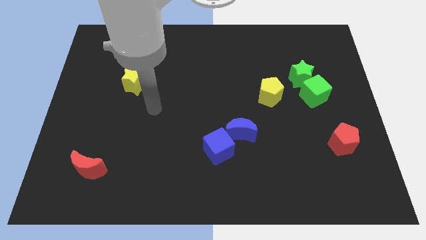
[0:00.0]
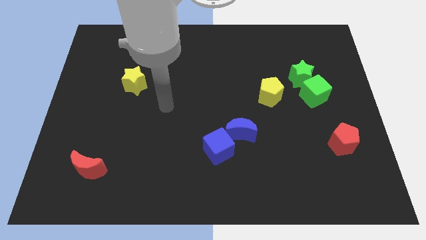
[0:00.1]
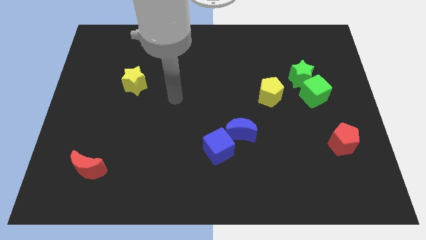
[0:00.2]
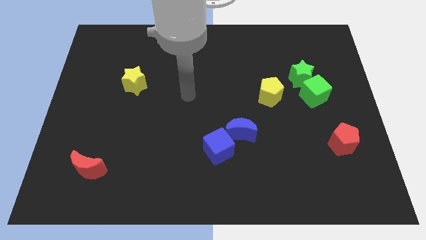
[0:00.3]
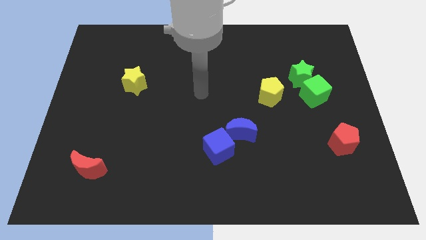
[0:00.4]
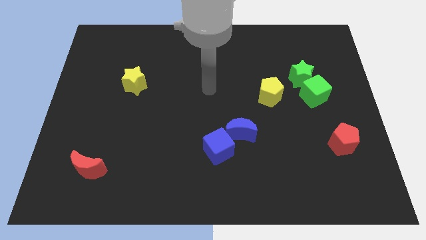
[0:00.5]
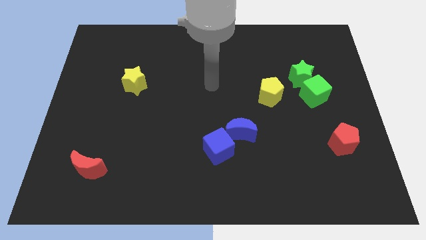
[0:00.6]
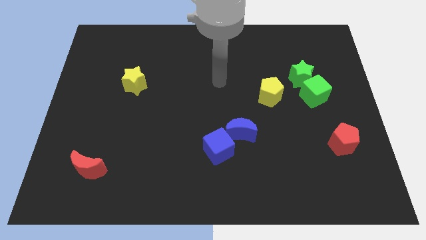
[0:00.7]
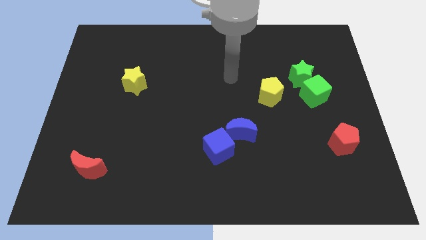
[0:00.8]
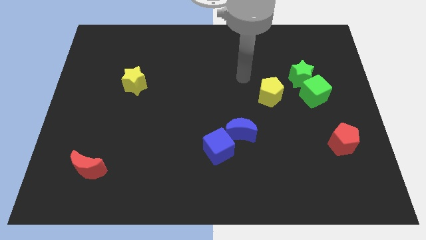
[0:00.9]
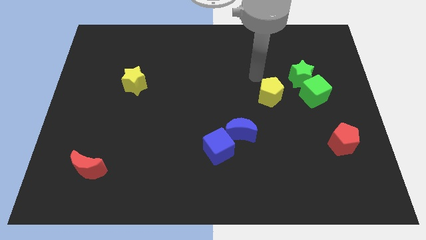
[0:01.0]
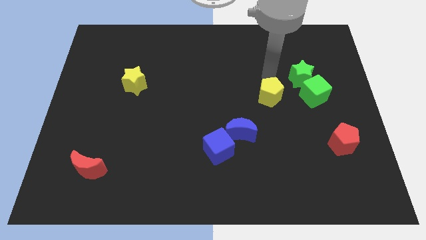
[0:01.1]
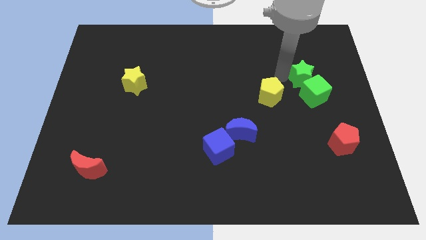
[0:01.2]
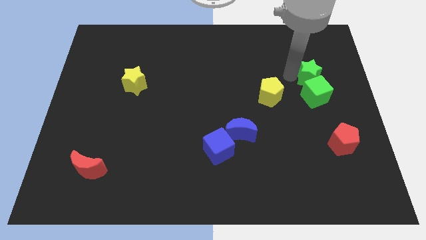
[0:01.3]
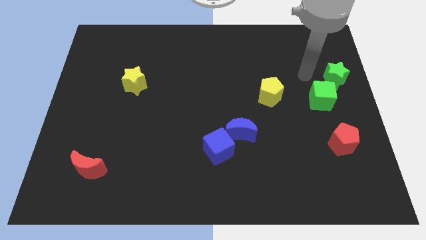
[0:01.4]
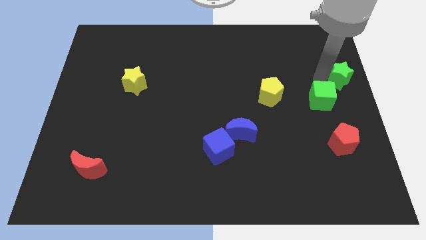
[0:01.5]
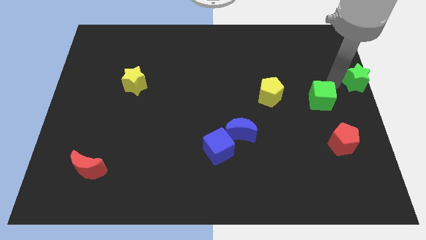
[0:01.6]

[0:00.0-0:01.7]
move the green cube away from the green star

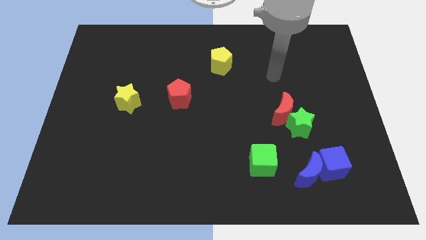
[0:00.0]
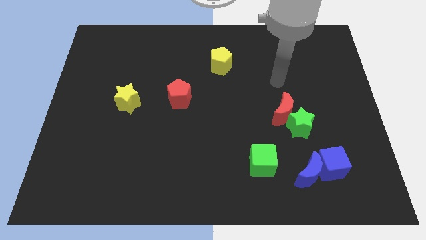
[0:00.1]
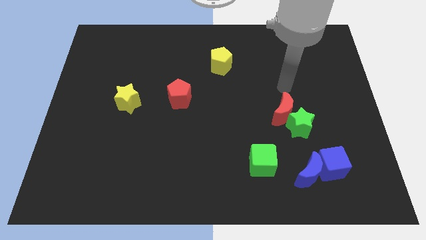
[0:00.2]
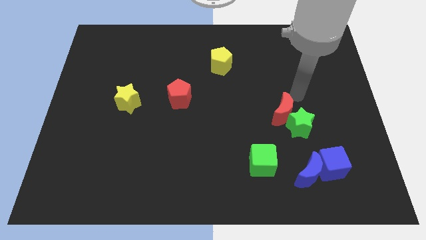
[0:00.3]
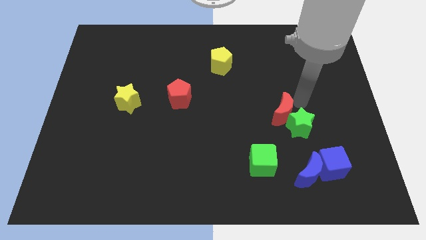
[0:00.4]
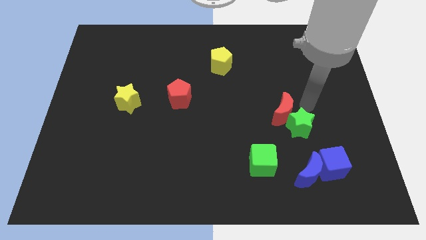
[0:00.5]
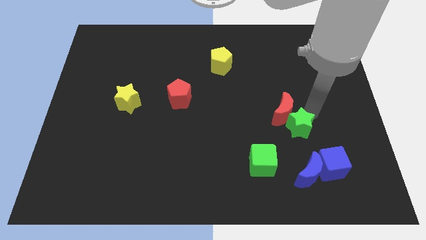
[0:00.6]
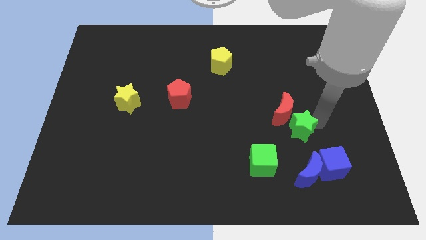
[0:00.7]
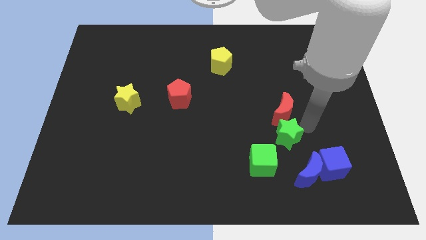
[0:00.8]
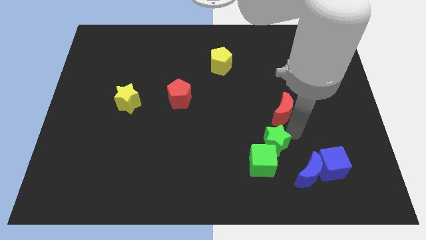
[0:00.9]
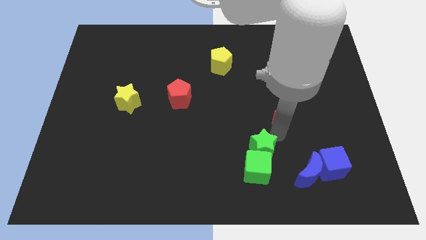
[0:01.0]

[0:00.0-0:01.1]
separate the red moon from the green star

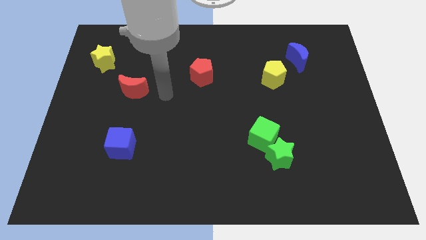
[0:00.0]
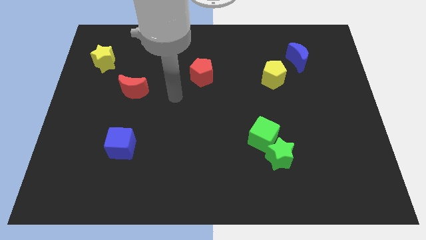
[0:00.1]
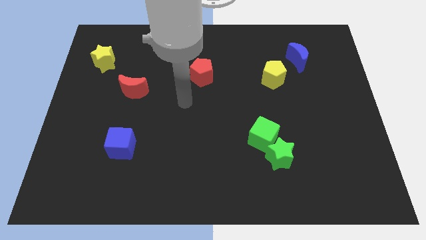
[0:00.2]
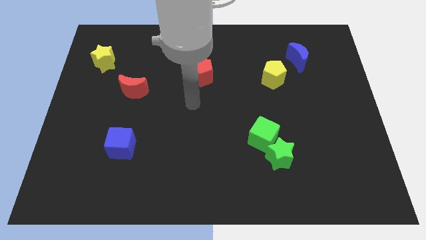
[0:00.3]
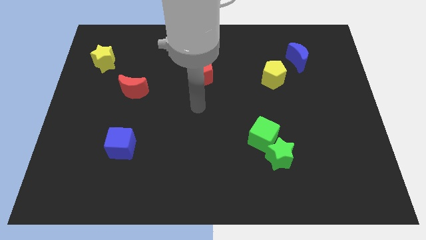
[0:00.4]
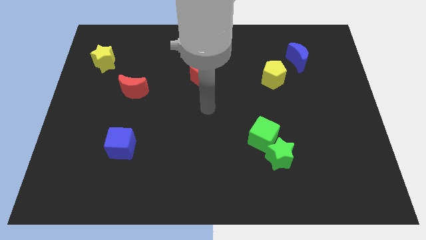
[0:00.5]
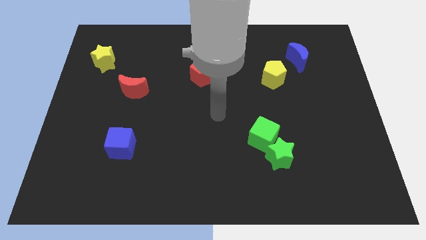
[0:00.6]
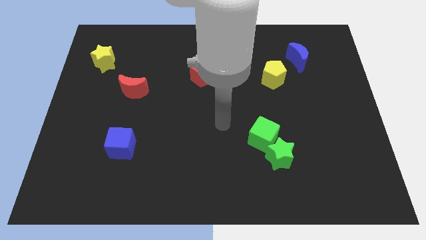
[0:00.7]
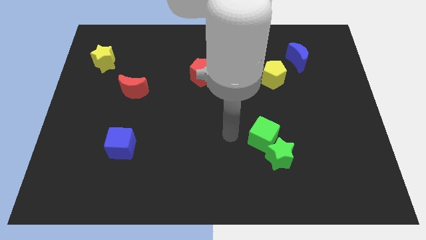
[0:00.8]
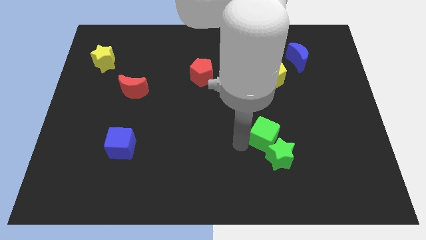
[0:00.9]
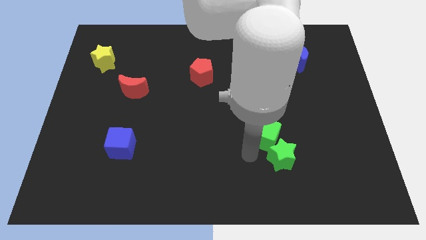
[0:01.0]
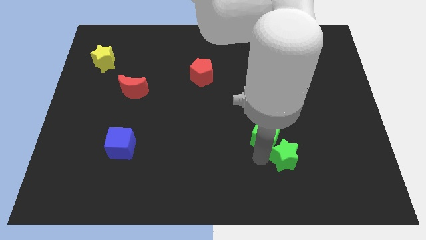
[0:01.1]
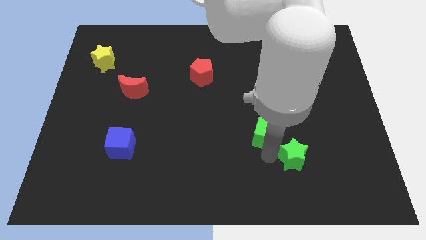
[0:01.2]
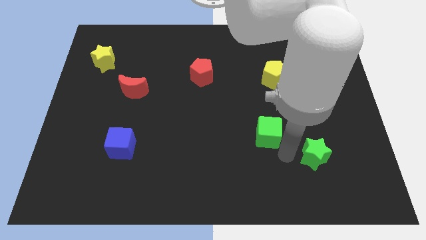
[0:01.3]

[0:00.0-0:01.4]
separate the green cube from the green star

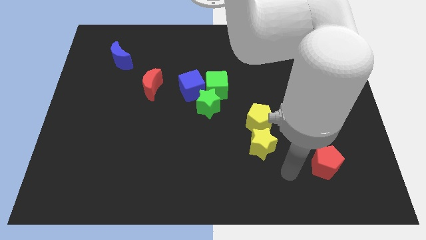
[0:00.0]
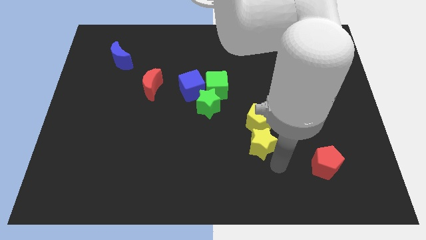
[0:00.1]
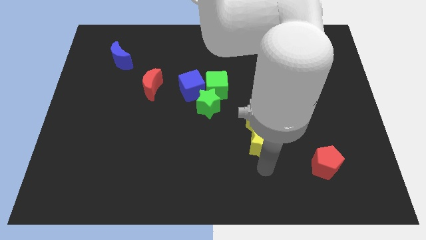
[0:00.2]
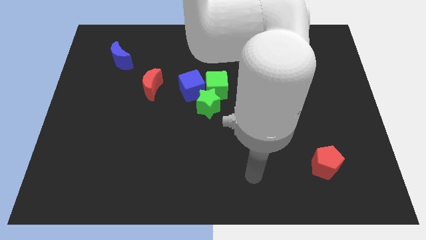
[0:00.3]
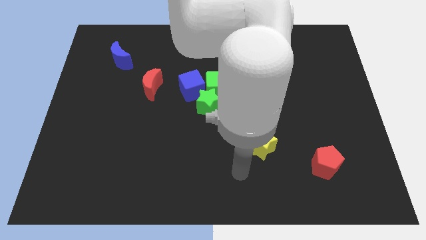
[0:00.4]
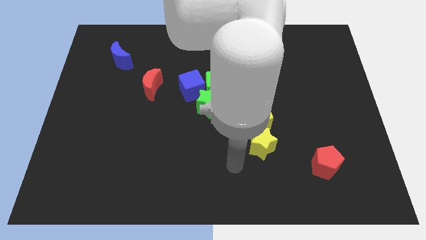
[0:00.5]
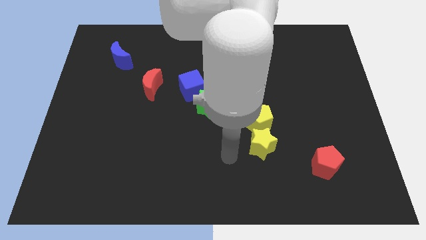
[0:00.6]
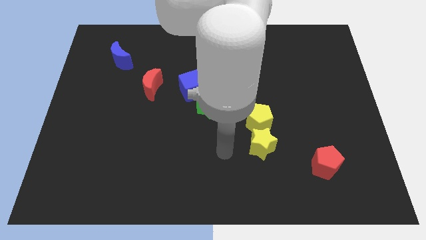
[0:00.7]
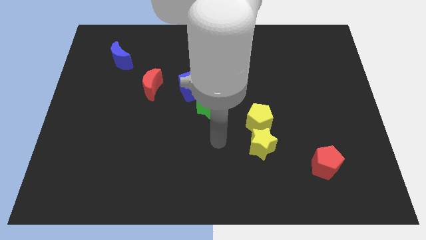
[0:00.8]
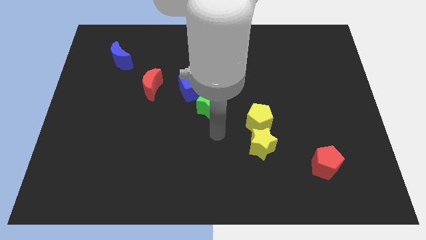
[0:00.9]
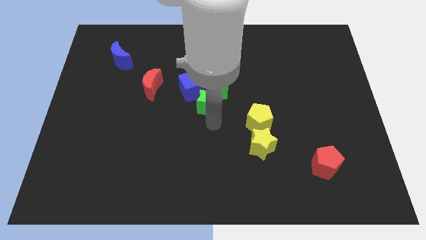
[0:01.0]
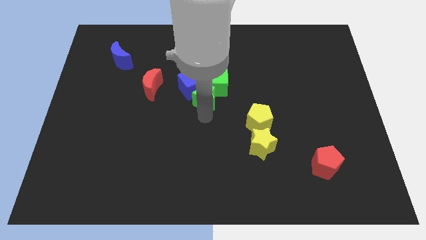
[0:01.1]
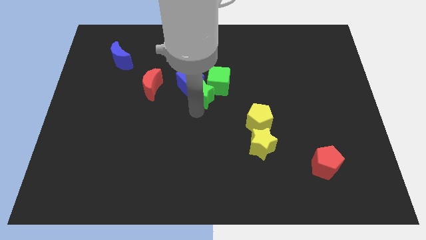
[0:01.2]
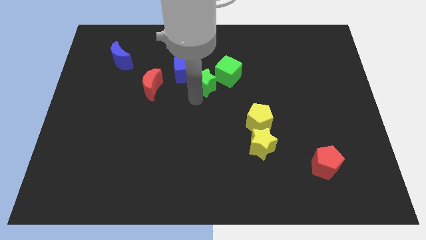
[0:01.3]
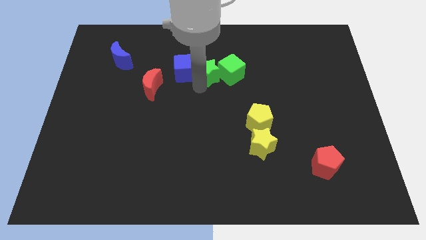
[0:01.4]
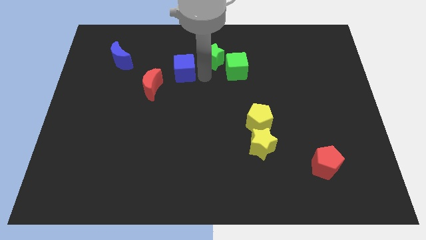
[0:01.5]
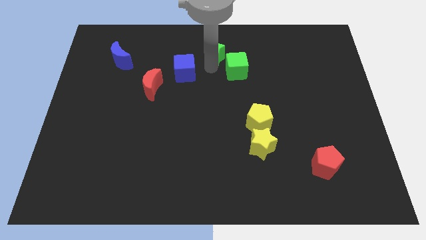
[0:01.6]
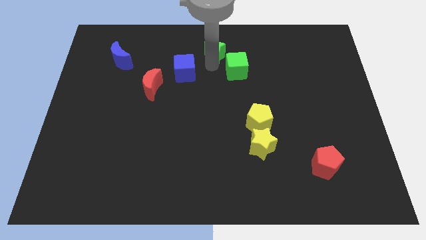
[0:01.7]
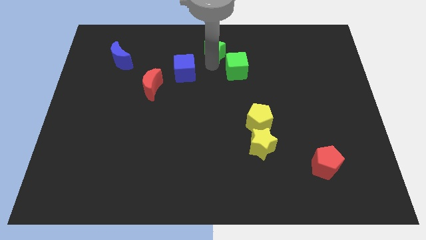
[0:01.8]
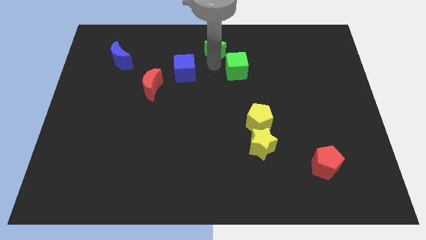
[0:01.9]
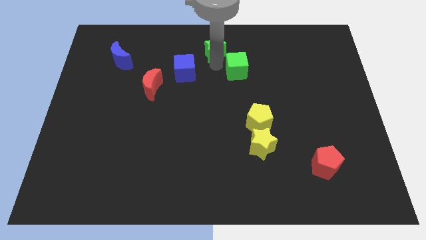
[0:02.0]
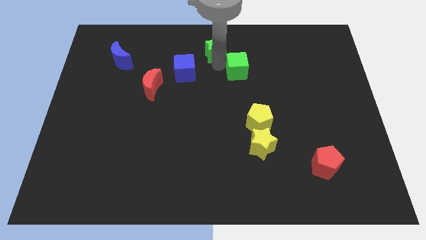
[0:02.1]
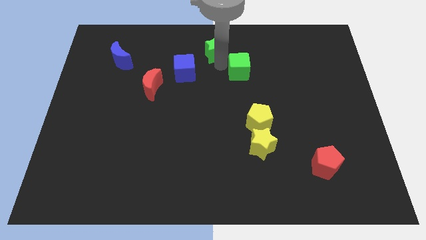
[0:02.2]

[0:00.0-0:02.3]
separate the green cube from the green star and blue cube

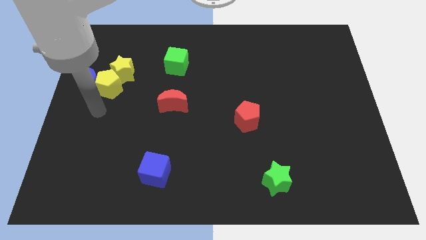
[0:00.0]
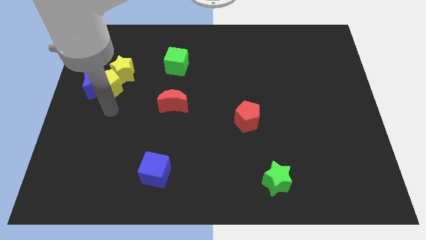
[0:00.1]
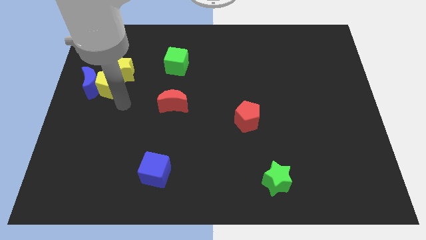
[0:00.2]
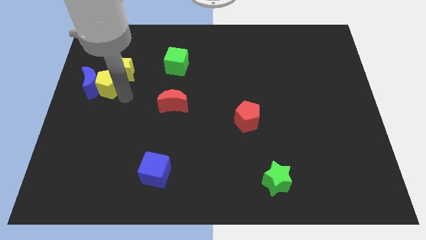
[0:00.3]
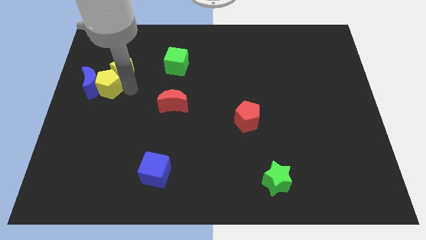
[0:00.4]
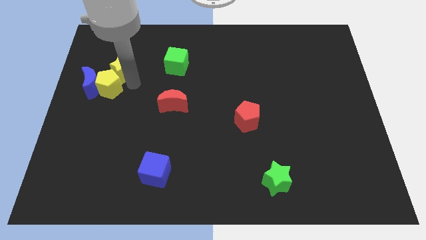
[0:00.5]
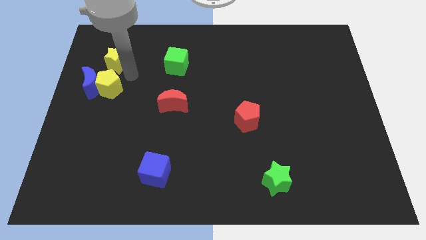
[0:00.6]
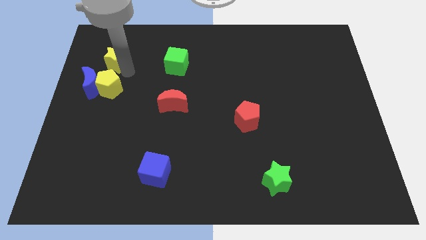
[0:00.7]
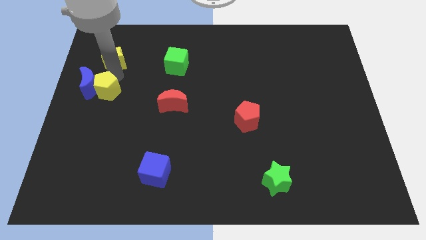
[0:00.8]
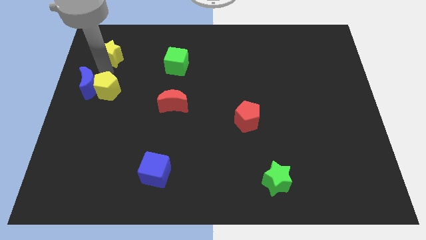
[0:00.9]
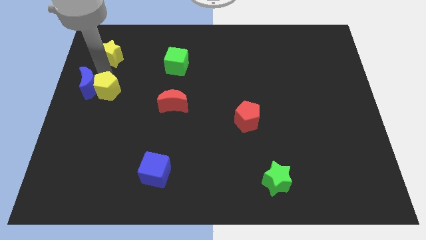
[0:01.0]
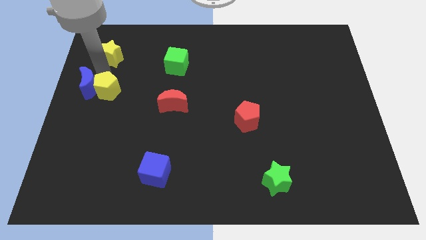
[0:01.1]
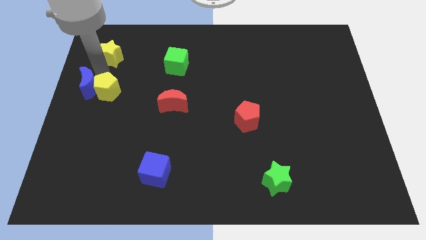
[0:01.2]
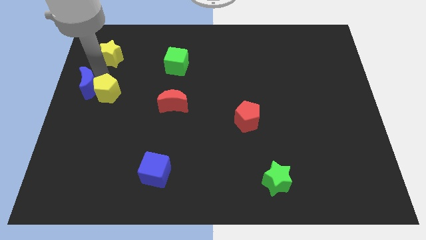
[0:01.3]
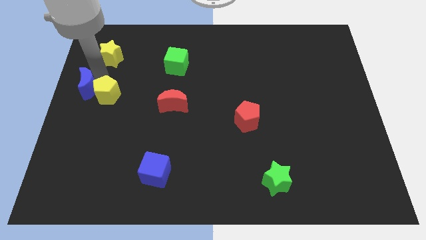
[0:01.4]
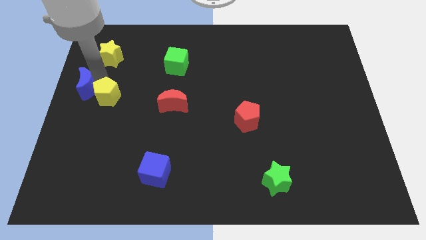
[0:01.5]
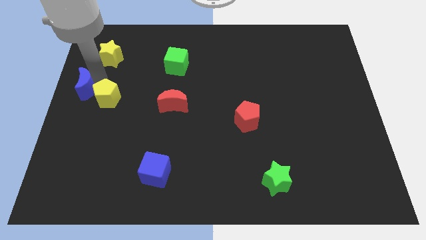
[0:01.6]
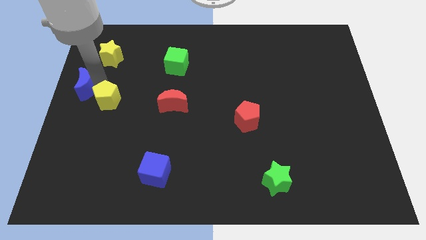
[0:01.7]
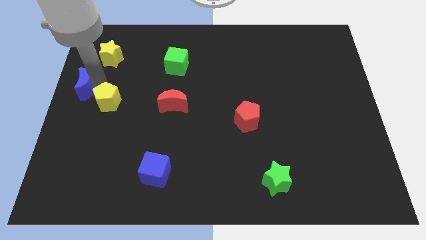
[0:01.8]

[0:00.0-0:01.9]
separate the yellow pentagon from the blue moon and yellow star

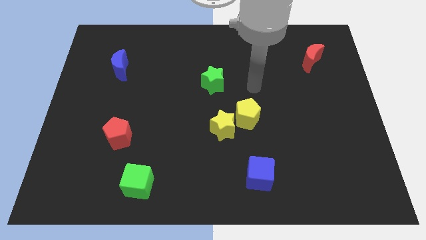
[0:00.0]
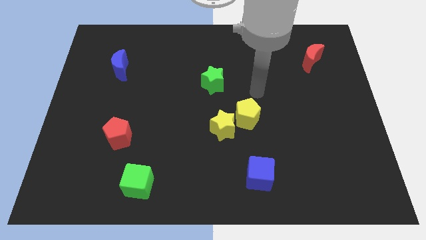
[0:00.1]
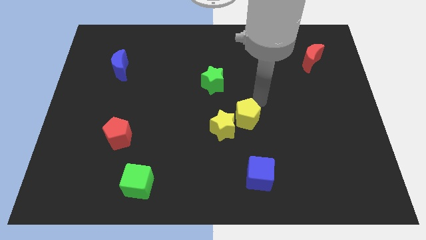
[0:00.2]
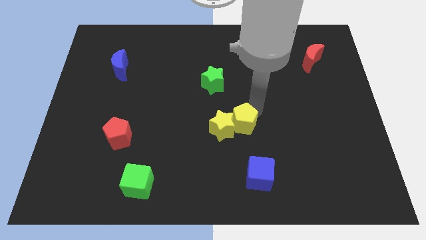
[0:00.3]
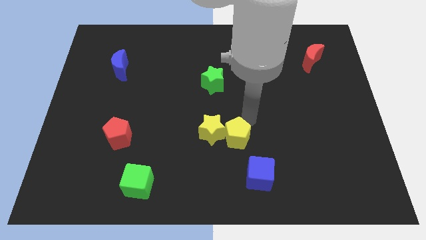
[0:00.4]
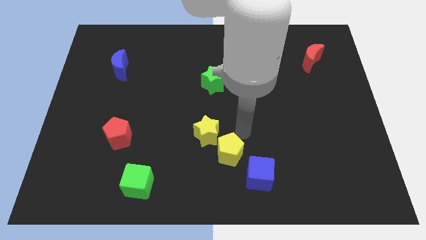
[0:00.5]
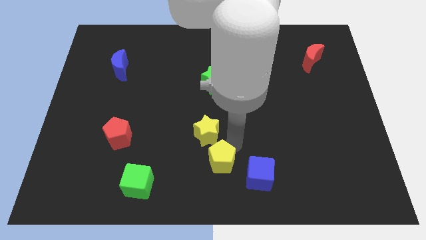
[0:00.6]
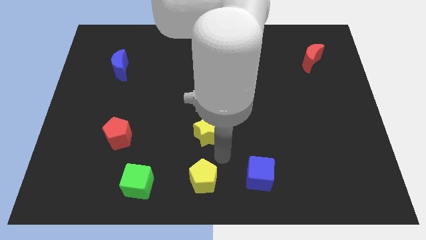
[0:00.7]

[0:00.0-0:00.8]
move the yellow star away from the yellow pentagon
